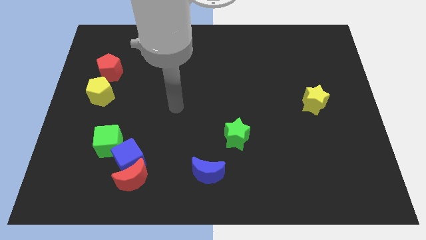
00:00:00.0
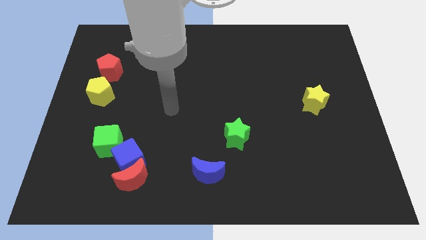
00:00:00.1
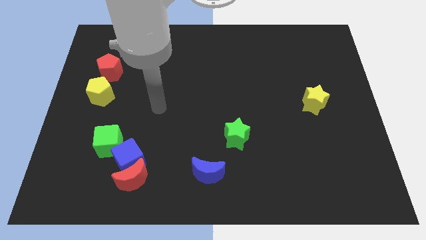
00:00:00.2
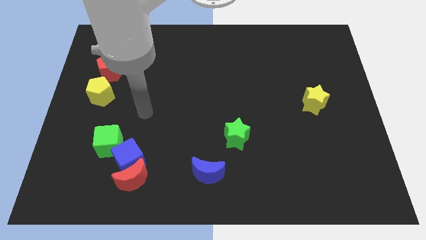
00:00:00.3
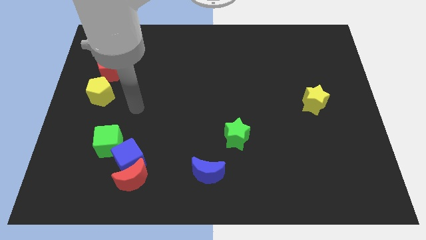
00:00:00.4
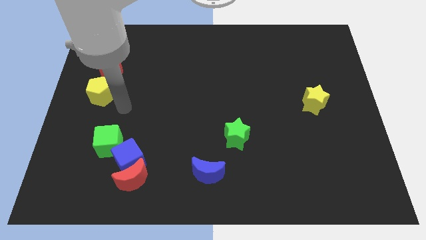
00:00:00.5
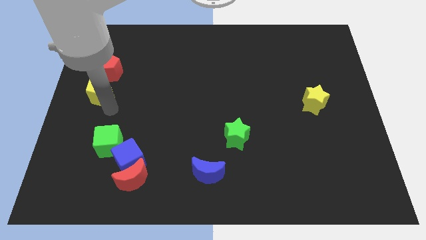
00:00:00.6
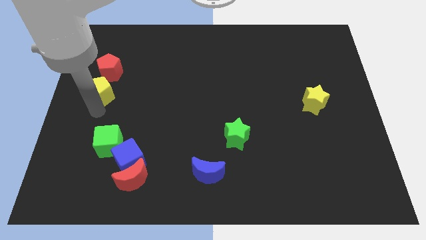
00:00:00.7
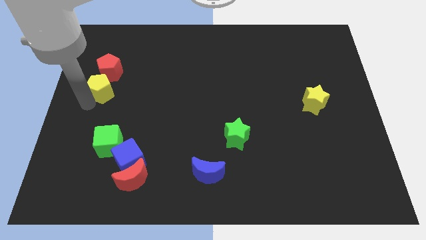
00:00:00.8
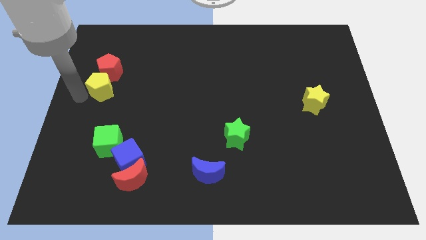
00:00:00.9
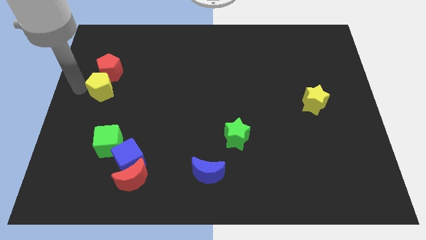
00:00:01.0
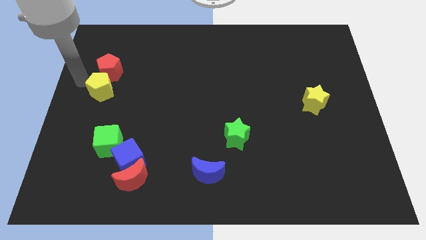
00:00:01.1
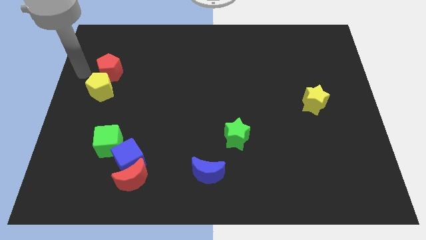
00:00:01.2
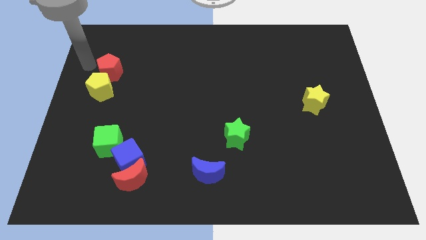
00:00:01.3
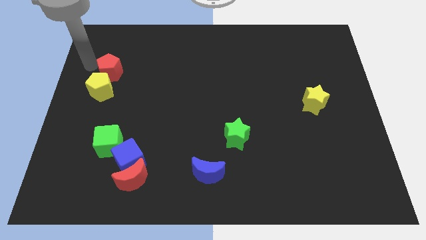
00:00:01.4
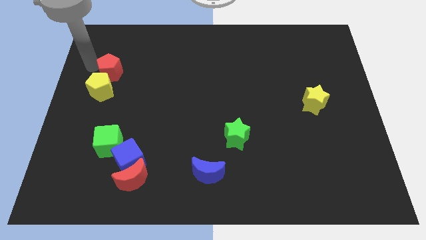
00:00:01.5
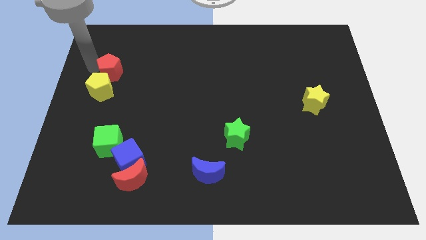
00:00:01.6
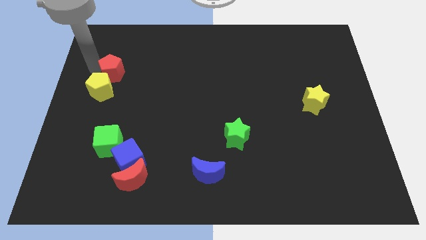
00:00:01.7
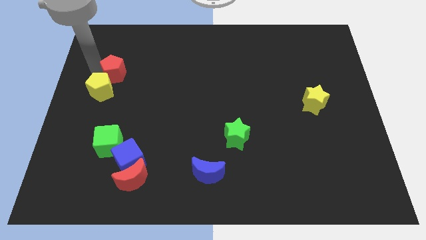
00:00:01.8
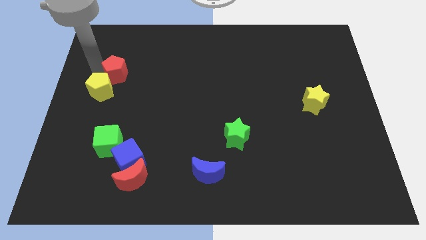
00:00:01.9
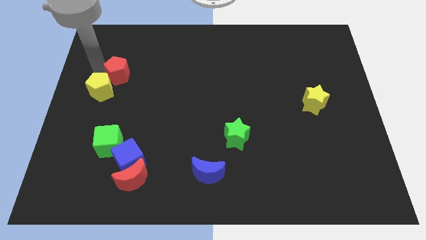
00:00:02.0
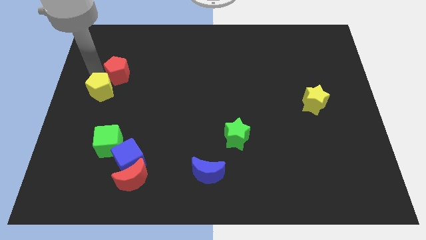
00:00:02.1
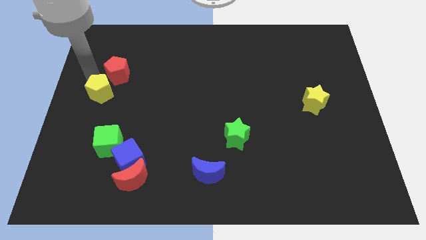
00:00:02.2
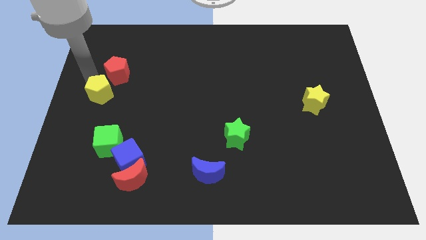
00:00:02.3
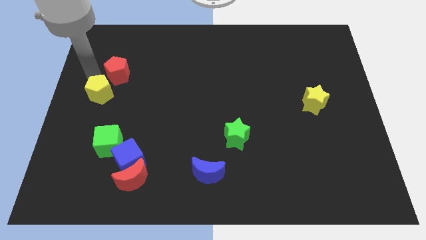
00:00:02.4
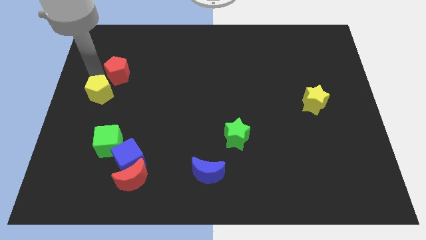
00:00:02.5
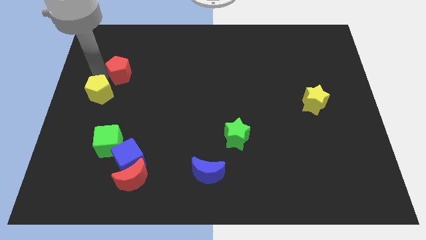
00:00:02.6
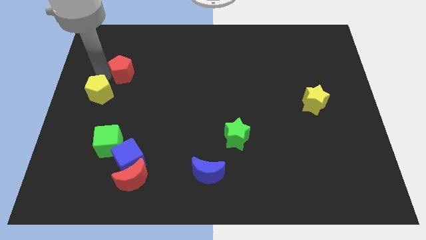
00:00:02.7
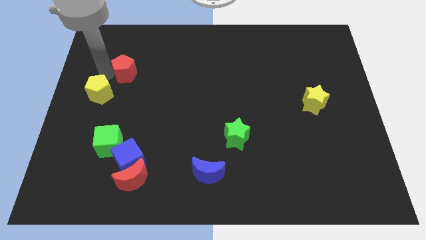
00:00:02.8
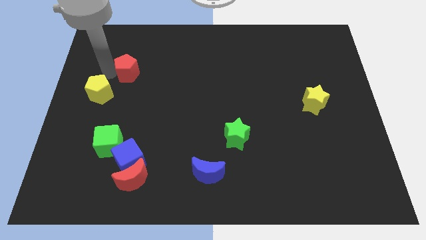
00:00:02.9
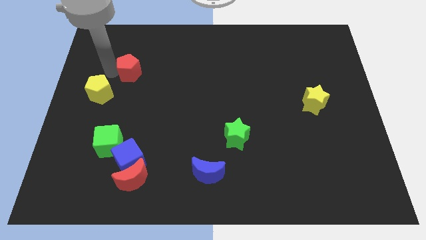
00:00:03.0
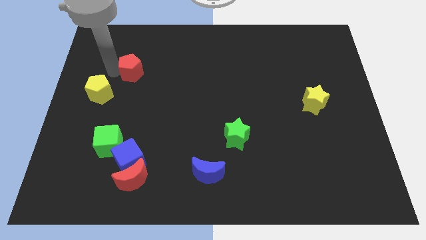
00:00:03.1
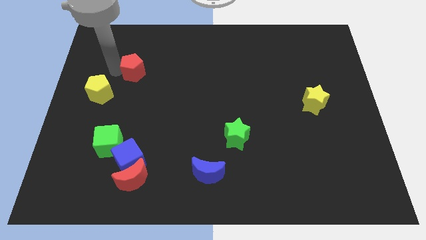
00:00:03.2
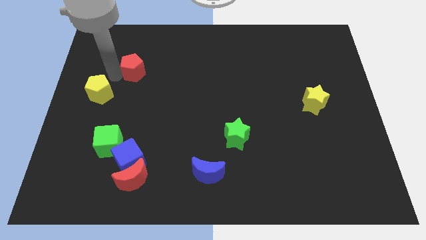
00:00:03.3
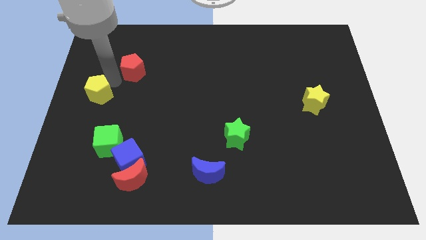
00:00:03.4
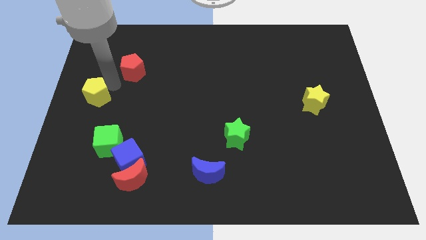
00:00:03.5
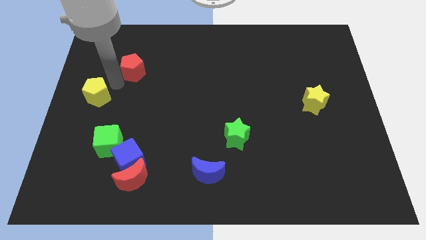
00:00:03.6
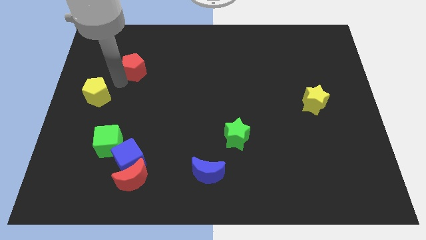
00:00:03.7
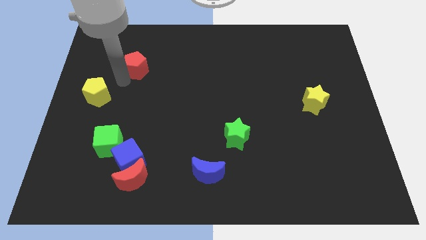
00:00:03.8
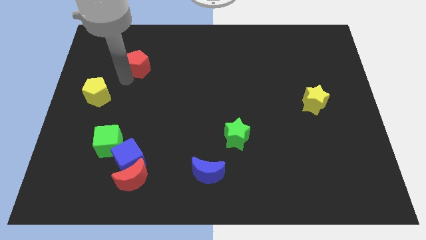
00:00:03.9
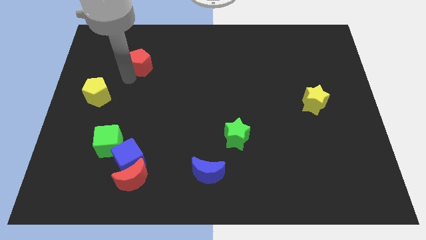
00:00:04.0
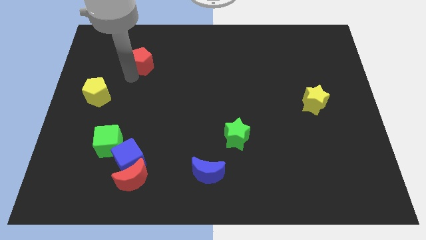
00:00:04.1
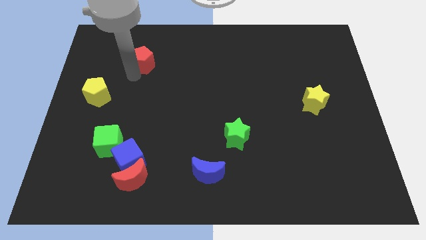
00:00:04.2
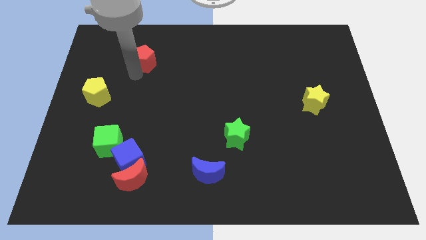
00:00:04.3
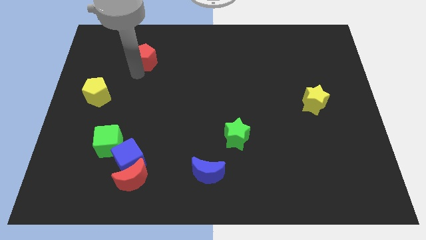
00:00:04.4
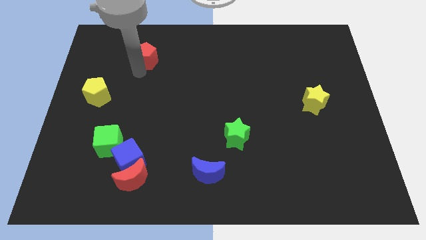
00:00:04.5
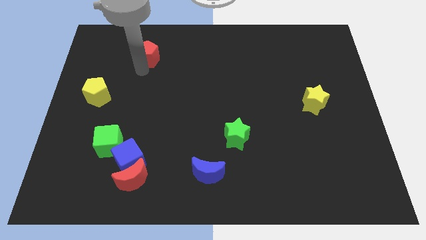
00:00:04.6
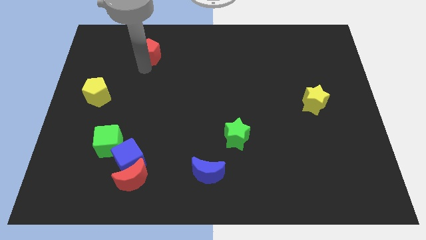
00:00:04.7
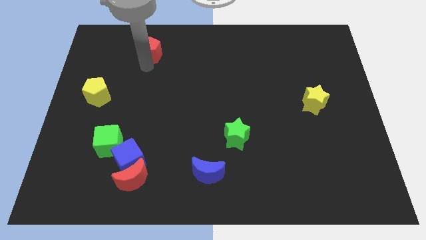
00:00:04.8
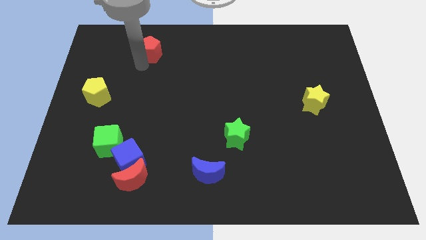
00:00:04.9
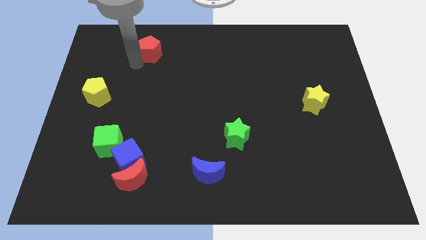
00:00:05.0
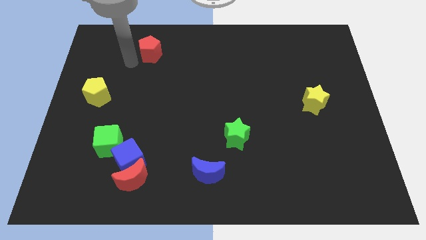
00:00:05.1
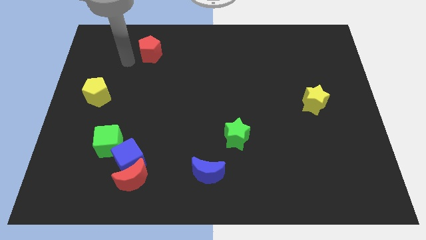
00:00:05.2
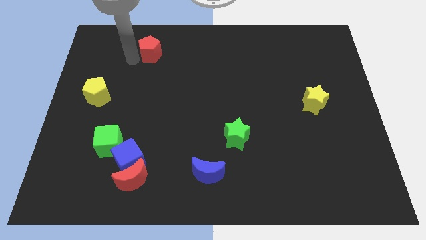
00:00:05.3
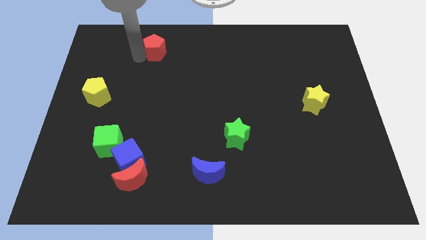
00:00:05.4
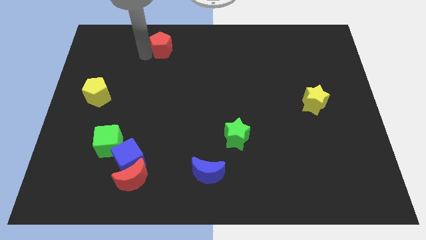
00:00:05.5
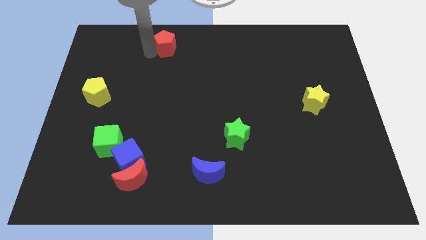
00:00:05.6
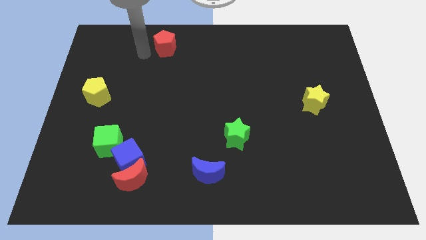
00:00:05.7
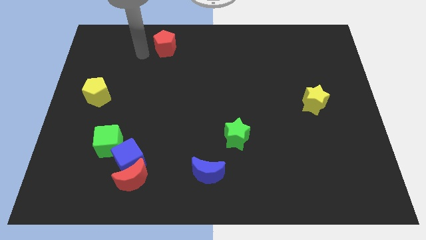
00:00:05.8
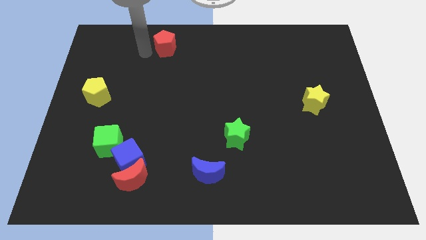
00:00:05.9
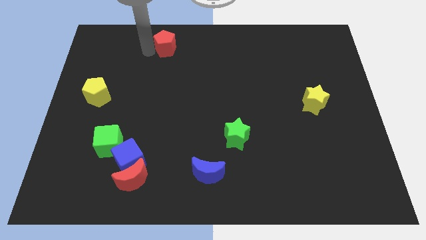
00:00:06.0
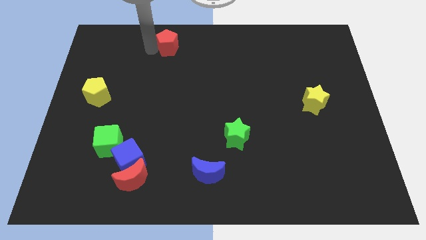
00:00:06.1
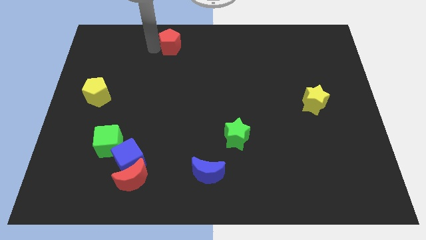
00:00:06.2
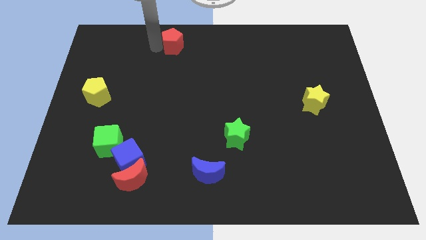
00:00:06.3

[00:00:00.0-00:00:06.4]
put the red pentagon to the towards your base
